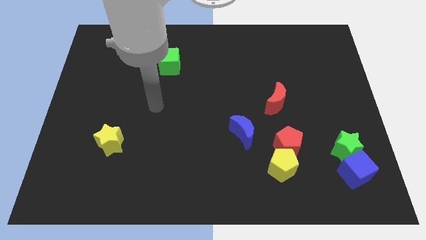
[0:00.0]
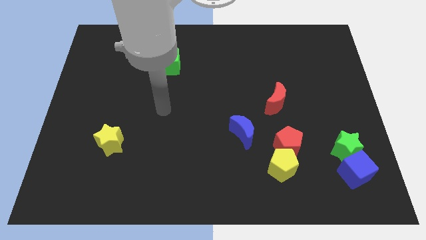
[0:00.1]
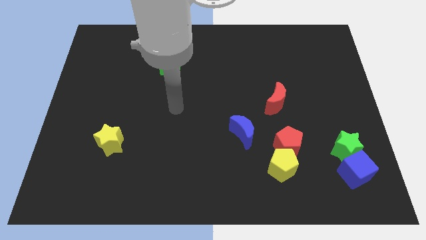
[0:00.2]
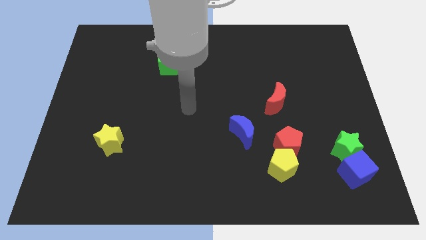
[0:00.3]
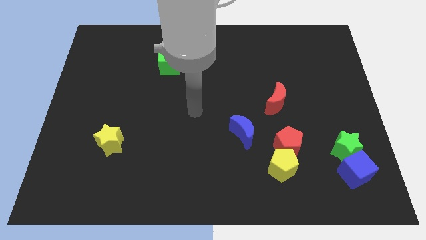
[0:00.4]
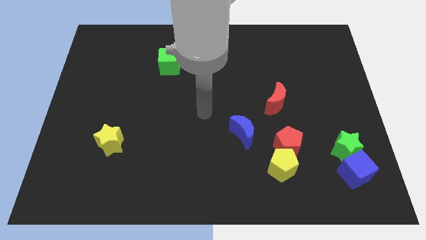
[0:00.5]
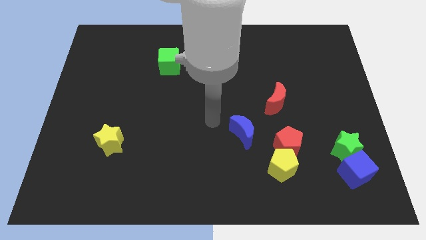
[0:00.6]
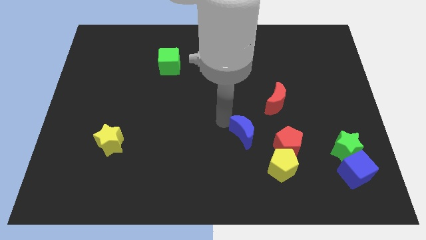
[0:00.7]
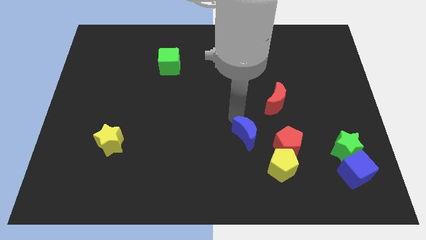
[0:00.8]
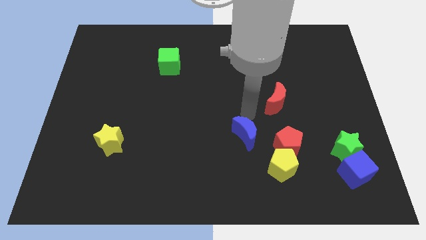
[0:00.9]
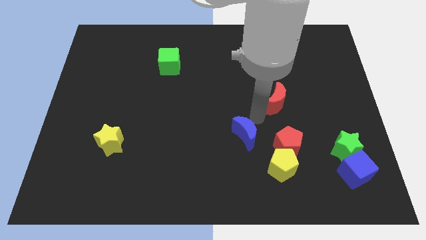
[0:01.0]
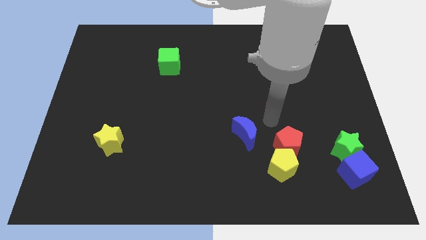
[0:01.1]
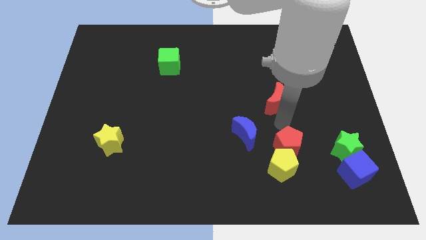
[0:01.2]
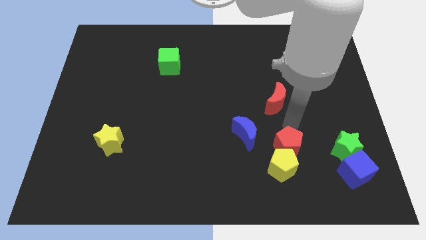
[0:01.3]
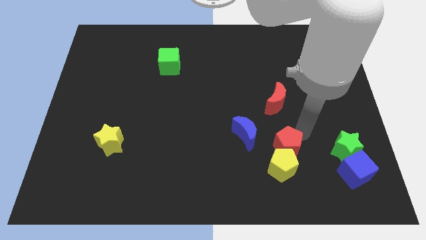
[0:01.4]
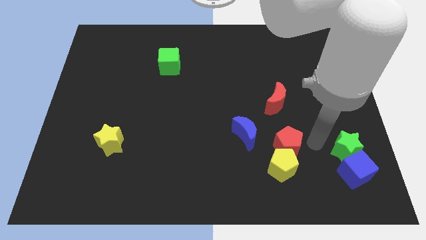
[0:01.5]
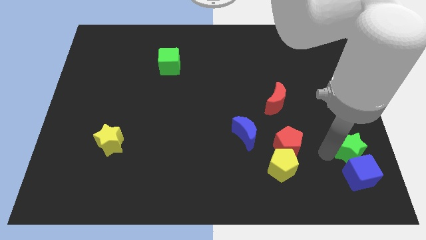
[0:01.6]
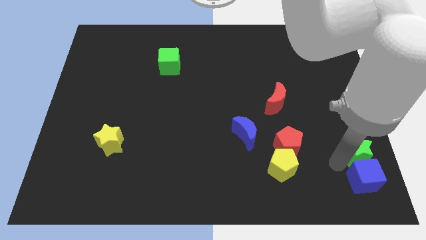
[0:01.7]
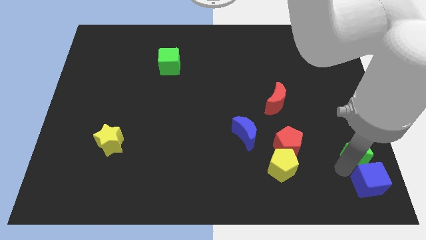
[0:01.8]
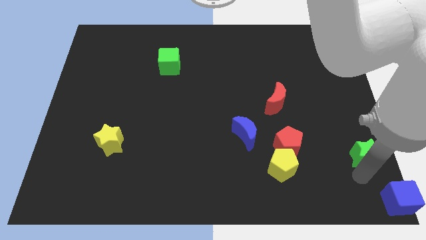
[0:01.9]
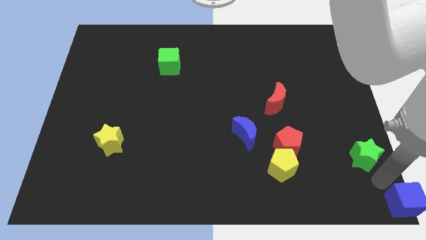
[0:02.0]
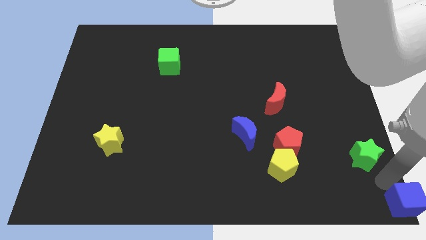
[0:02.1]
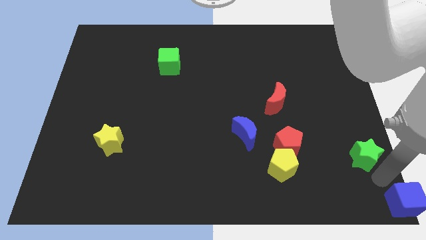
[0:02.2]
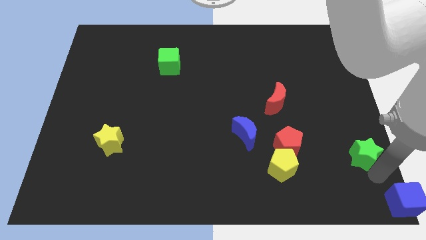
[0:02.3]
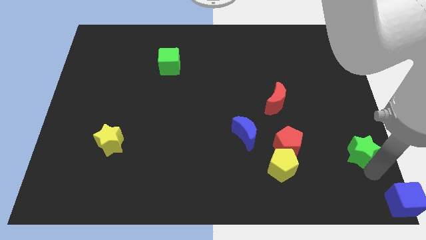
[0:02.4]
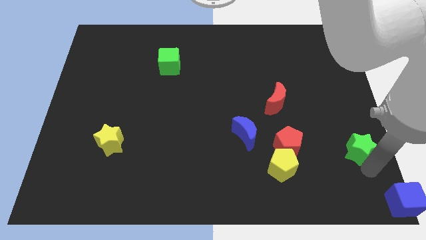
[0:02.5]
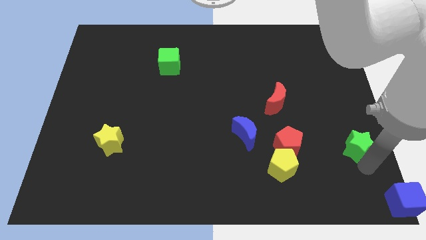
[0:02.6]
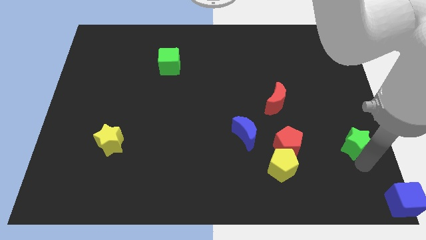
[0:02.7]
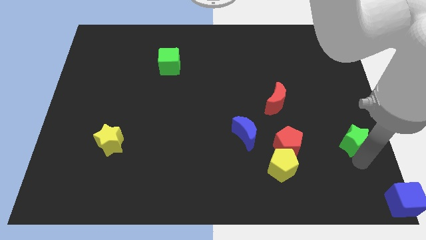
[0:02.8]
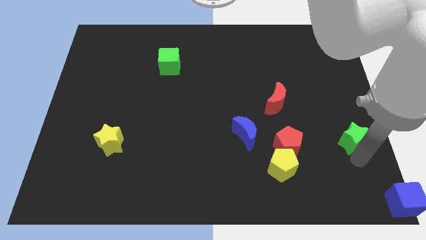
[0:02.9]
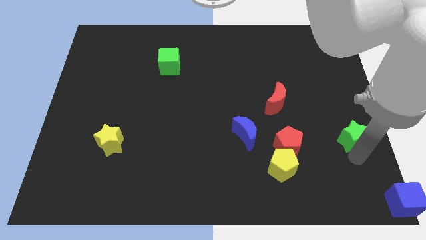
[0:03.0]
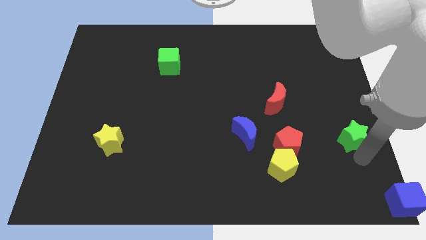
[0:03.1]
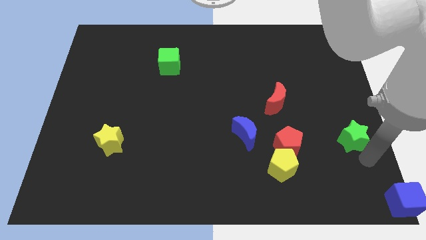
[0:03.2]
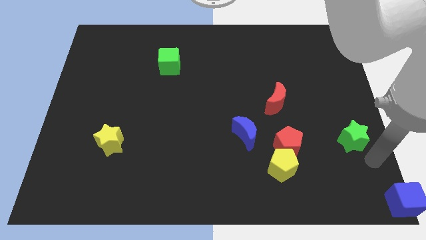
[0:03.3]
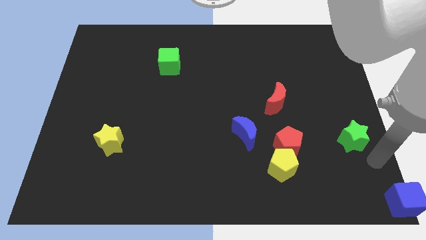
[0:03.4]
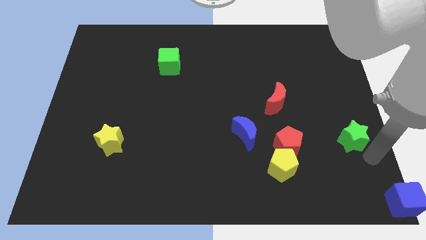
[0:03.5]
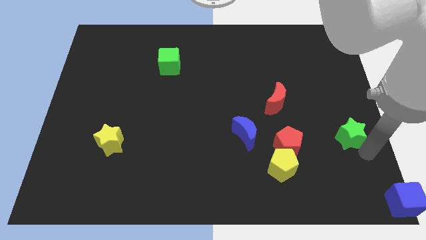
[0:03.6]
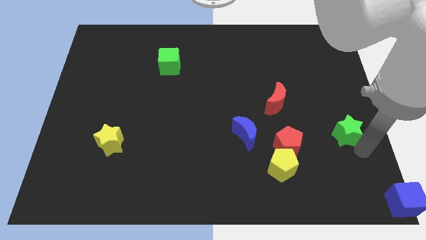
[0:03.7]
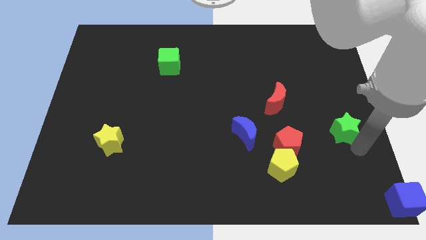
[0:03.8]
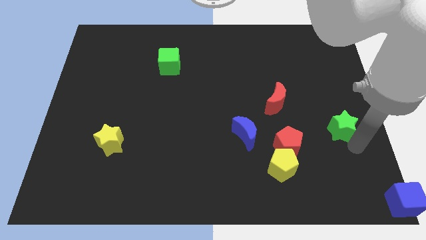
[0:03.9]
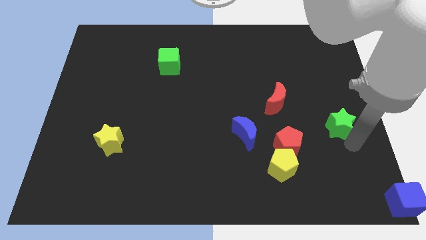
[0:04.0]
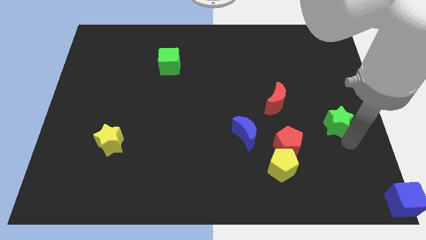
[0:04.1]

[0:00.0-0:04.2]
slightly move the green star up

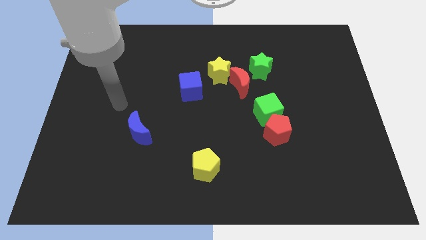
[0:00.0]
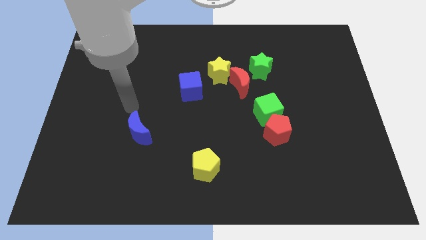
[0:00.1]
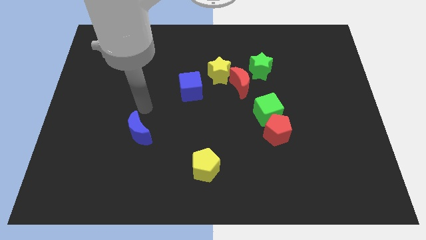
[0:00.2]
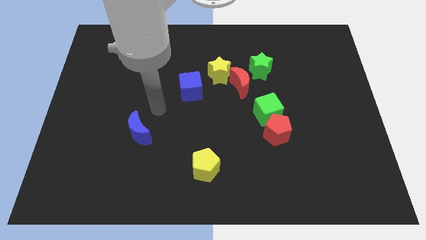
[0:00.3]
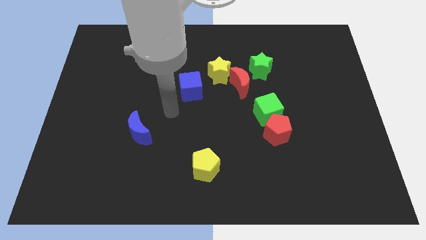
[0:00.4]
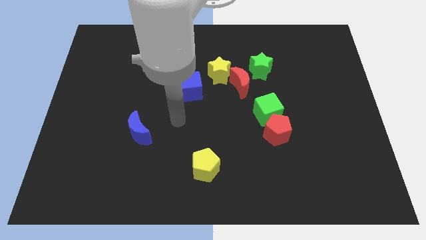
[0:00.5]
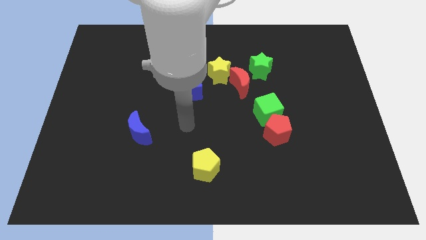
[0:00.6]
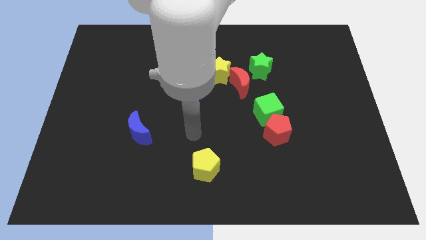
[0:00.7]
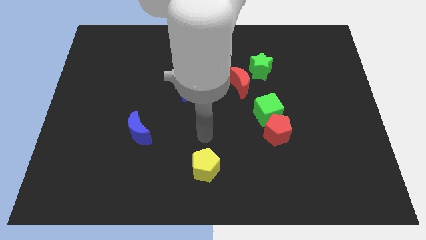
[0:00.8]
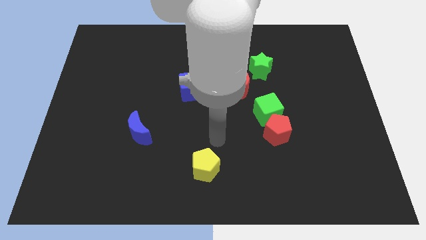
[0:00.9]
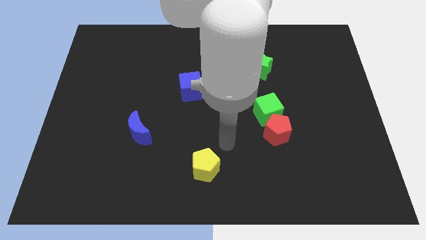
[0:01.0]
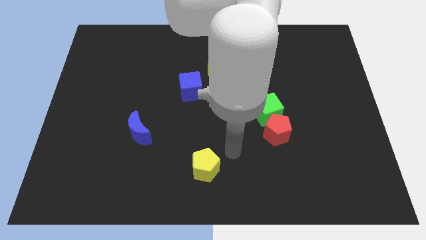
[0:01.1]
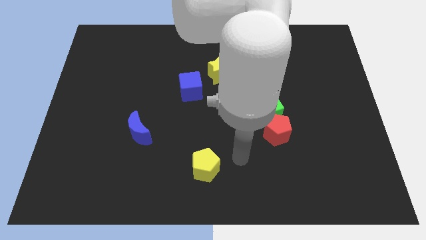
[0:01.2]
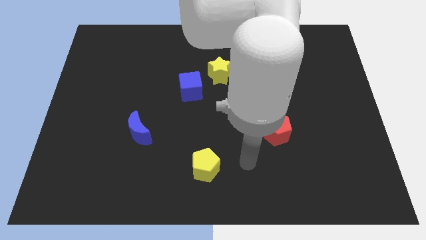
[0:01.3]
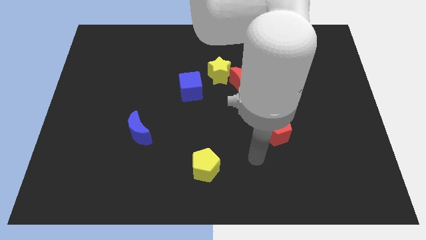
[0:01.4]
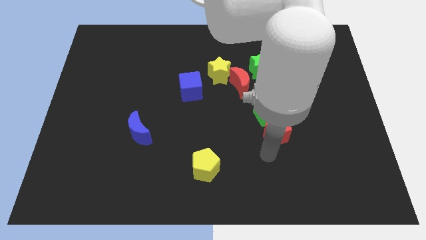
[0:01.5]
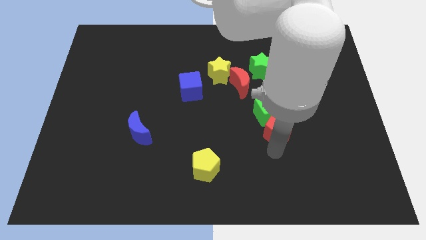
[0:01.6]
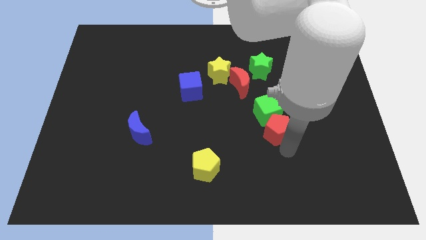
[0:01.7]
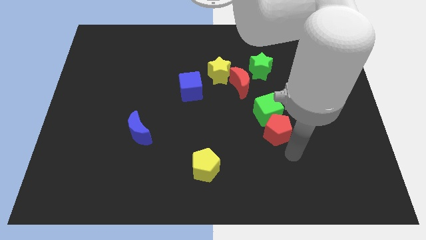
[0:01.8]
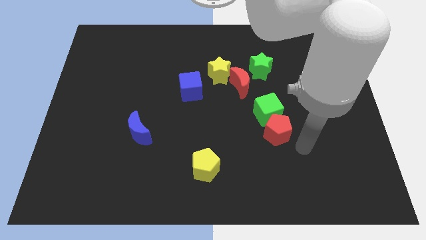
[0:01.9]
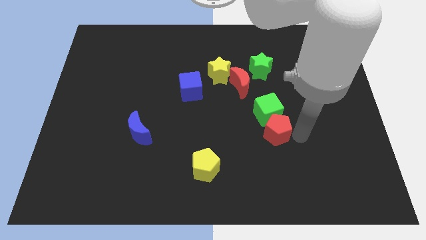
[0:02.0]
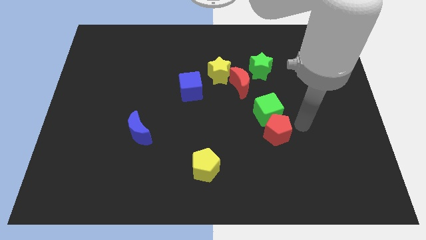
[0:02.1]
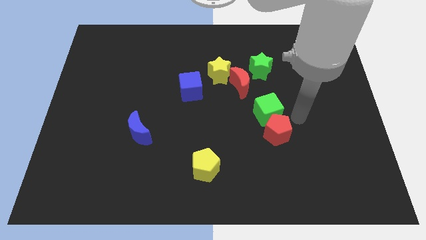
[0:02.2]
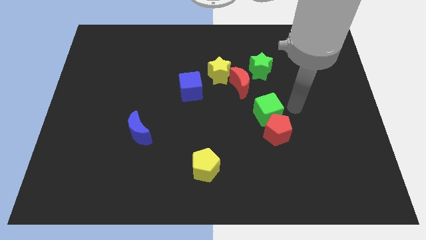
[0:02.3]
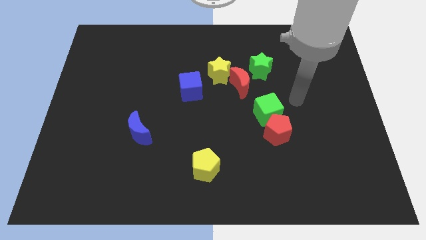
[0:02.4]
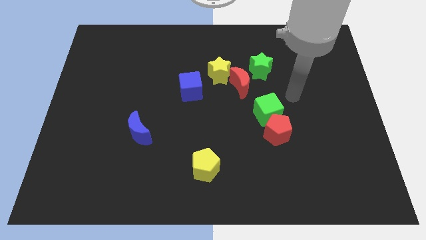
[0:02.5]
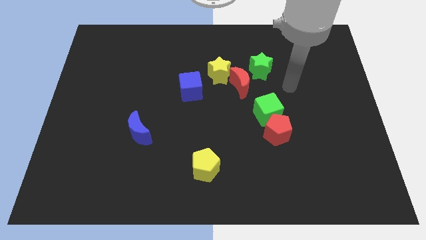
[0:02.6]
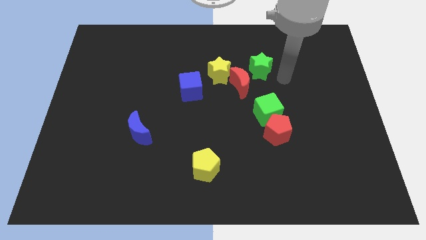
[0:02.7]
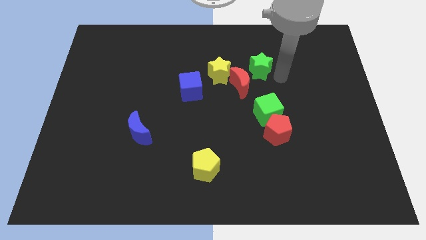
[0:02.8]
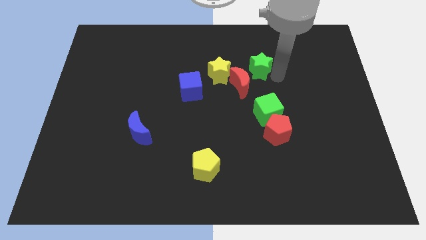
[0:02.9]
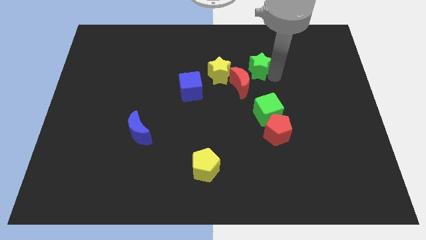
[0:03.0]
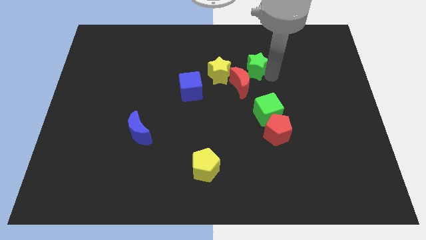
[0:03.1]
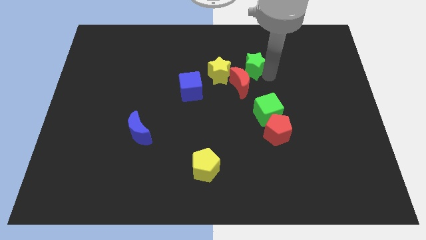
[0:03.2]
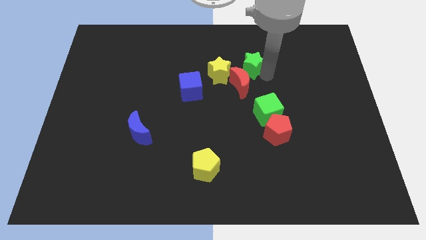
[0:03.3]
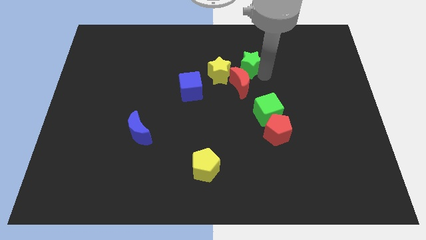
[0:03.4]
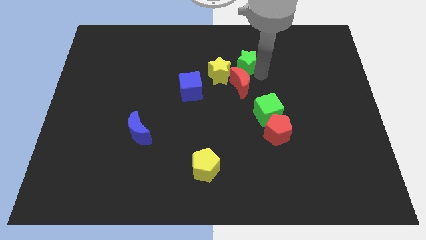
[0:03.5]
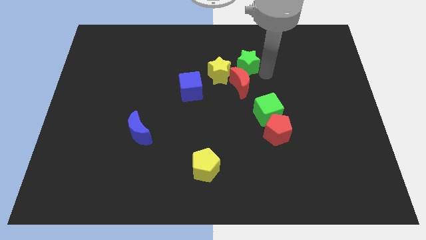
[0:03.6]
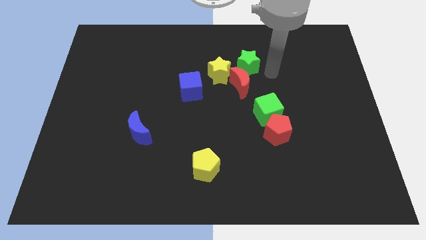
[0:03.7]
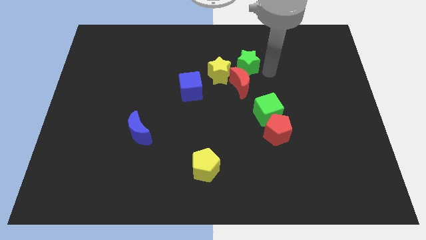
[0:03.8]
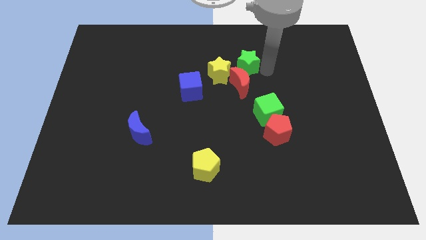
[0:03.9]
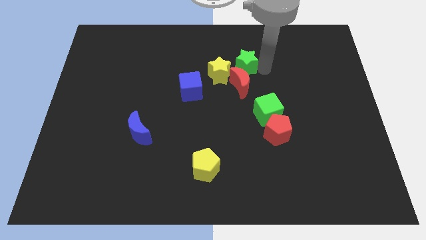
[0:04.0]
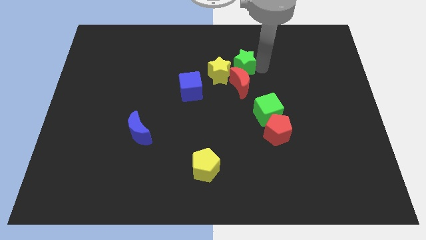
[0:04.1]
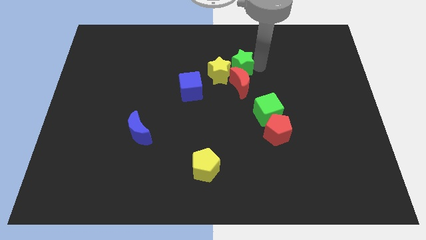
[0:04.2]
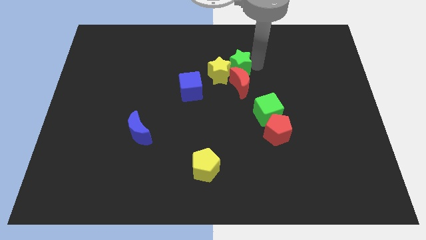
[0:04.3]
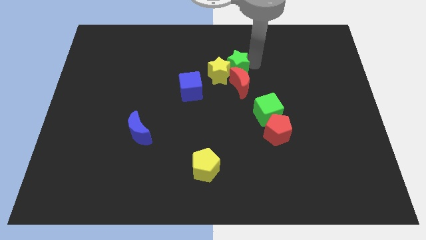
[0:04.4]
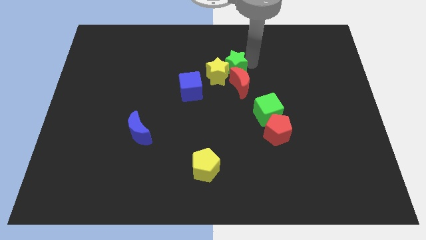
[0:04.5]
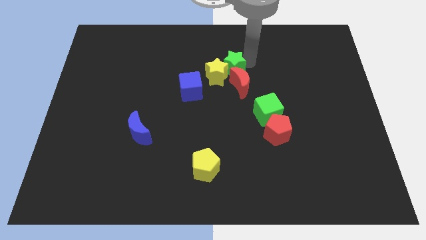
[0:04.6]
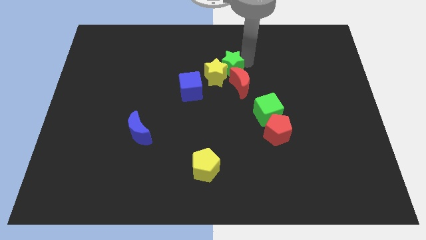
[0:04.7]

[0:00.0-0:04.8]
move the green star to the left a bit
